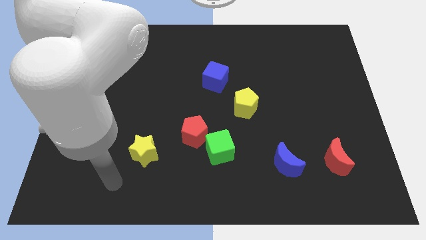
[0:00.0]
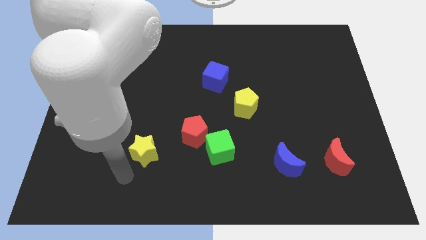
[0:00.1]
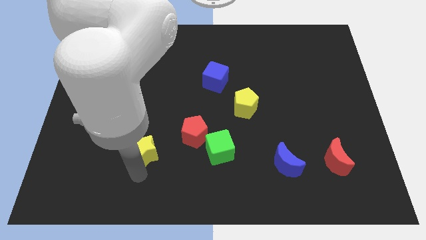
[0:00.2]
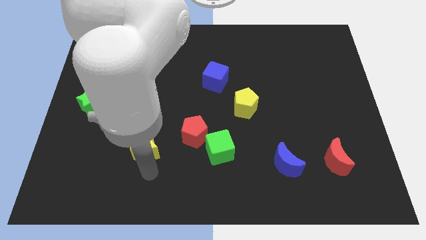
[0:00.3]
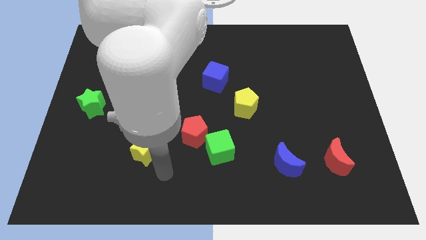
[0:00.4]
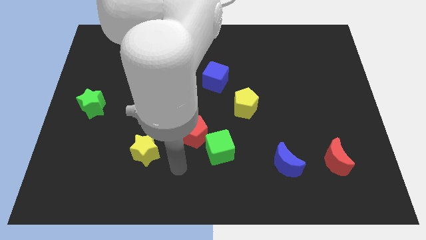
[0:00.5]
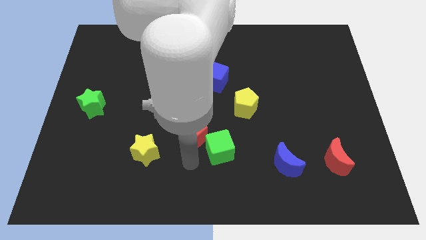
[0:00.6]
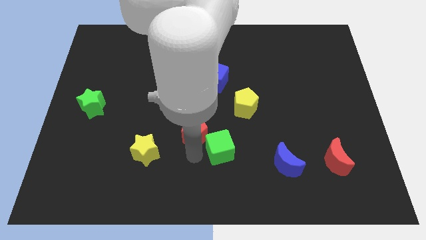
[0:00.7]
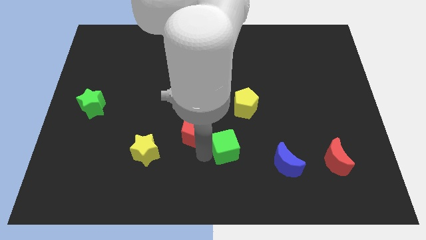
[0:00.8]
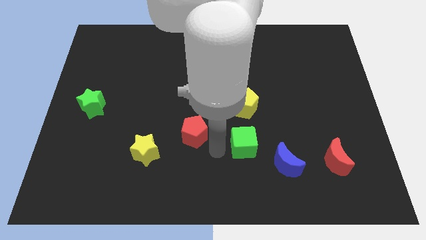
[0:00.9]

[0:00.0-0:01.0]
move the red pentagon away from the green cube

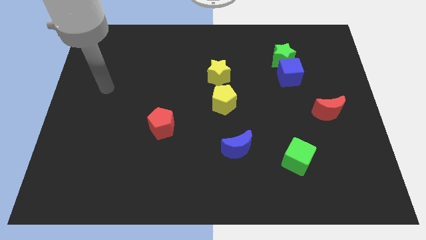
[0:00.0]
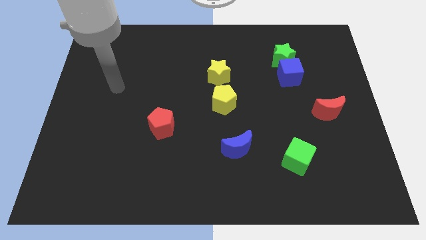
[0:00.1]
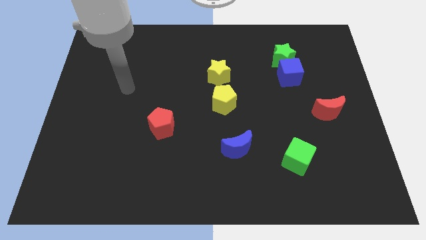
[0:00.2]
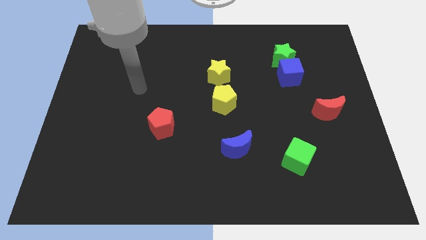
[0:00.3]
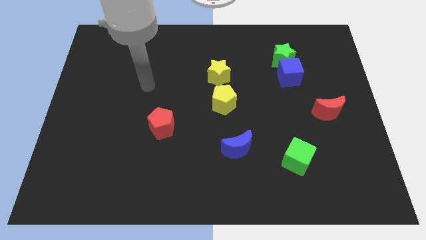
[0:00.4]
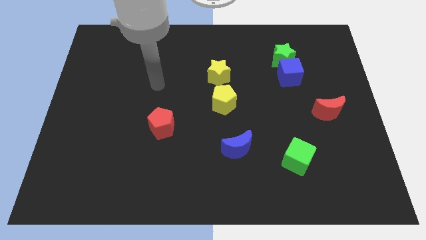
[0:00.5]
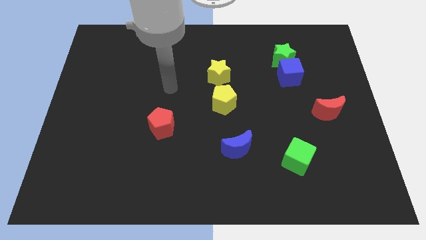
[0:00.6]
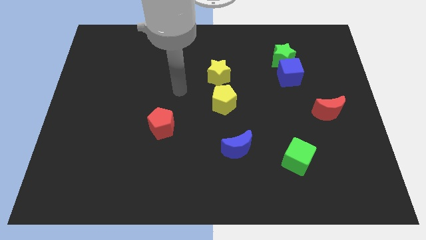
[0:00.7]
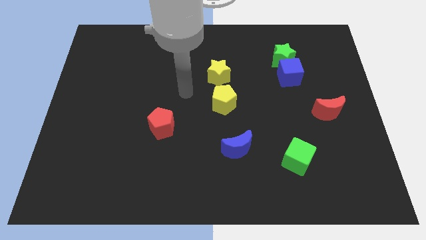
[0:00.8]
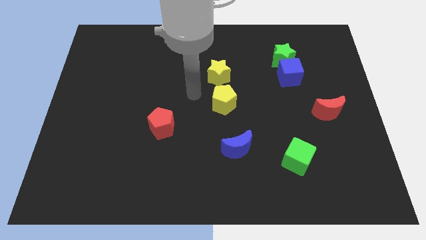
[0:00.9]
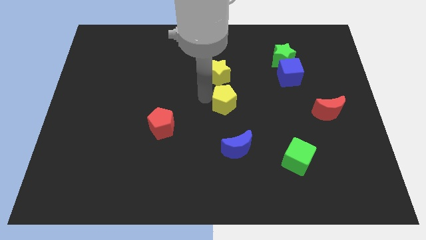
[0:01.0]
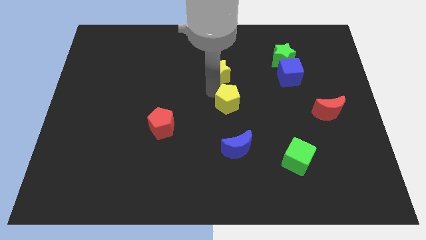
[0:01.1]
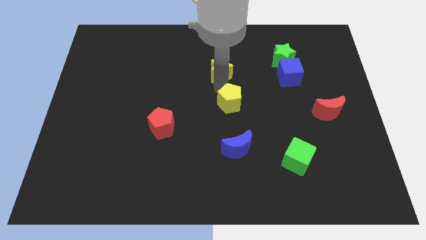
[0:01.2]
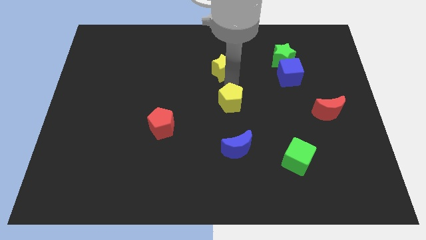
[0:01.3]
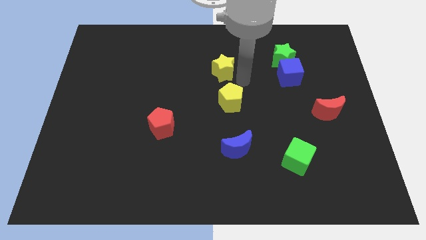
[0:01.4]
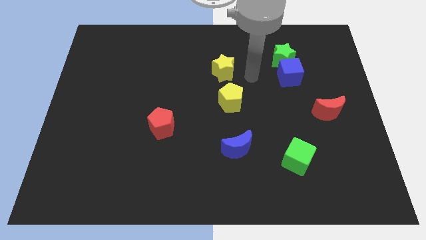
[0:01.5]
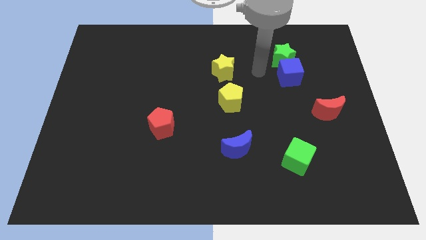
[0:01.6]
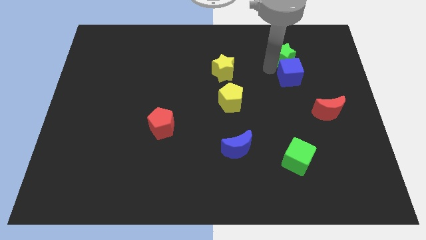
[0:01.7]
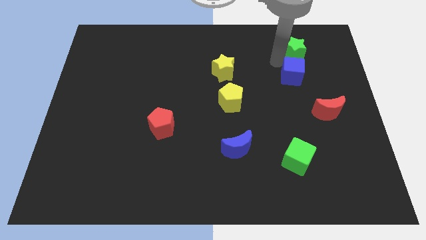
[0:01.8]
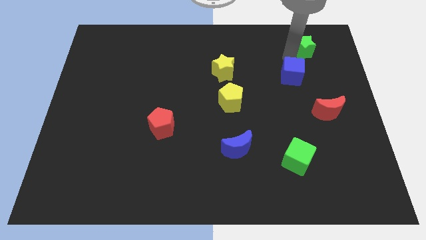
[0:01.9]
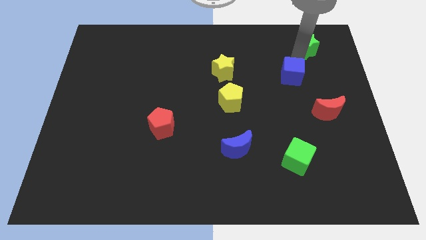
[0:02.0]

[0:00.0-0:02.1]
pull the blue cube apart from the green star

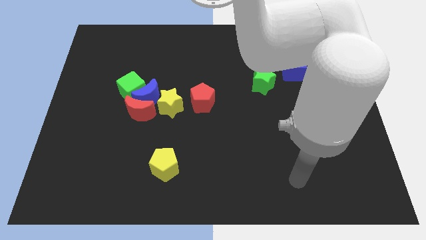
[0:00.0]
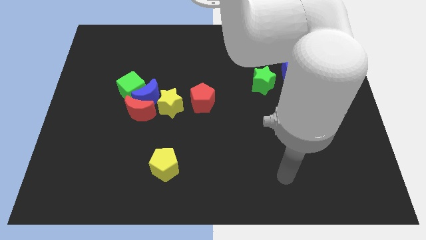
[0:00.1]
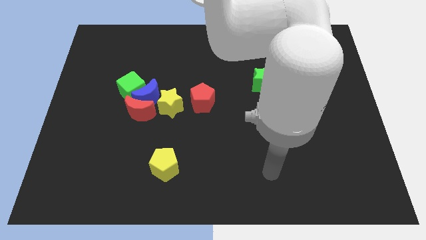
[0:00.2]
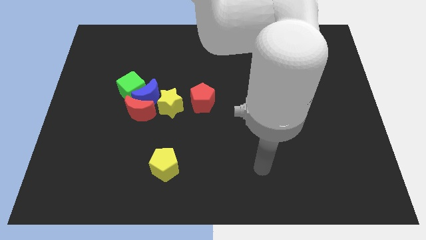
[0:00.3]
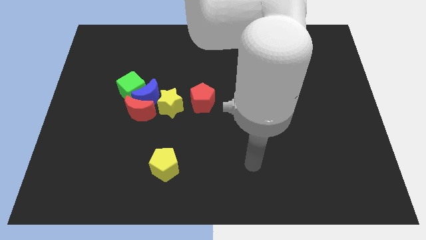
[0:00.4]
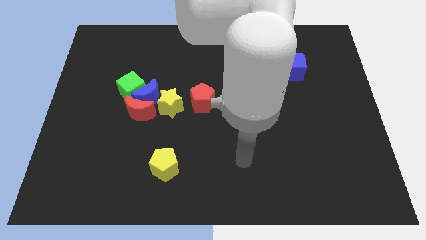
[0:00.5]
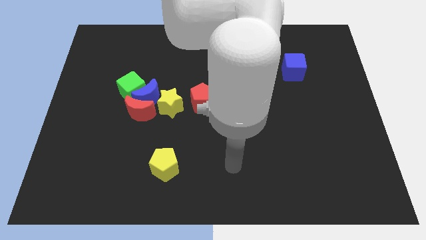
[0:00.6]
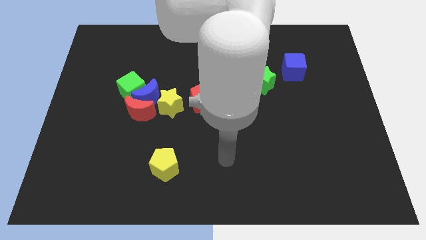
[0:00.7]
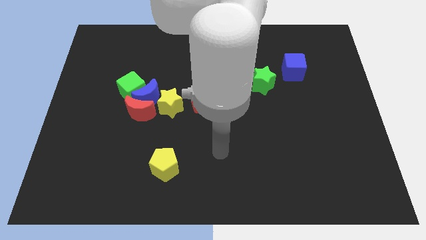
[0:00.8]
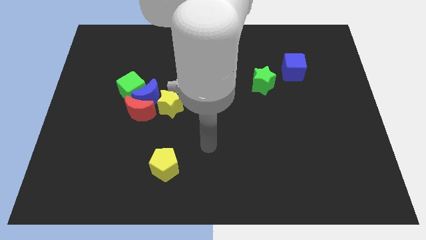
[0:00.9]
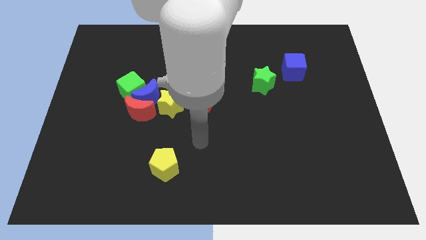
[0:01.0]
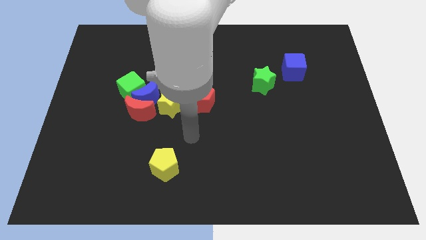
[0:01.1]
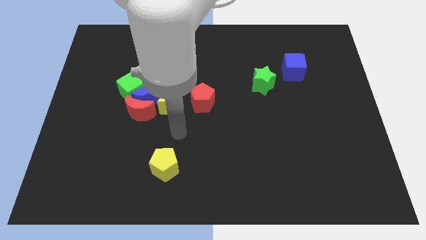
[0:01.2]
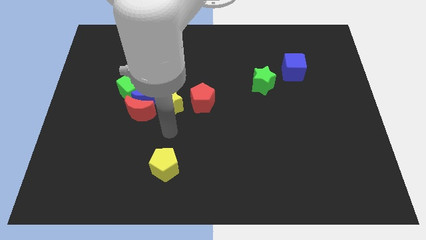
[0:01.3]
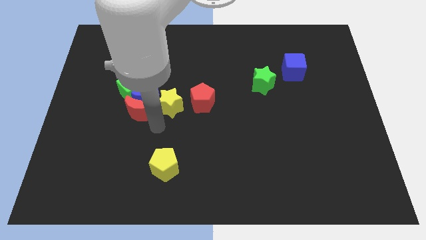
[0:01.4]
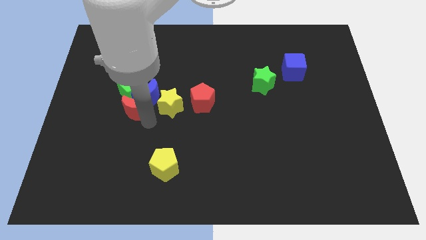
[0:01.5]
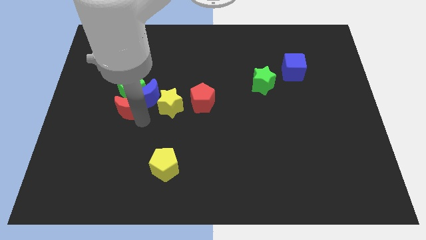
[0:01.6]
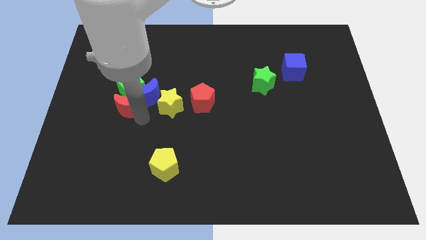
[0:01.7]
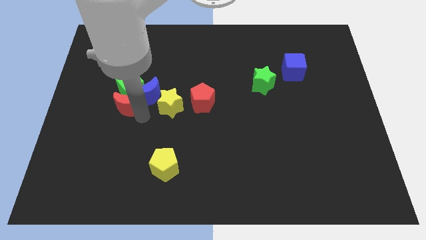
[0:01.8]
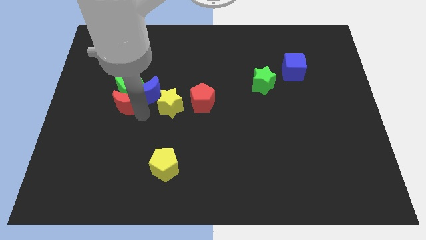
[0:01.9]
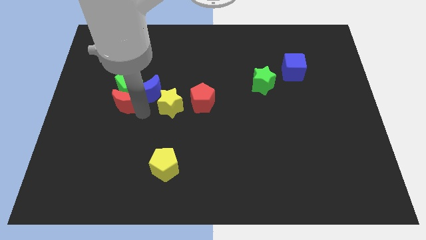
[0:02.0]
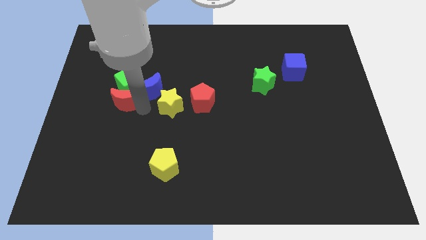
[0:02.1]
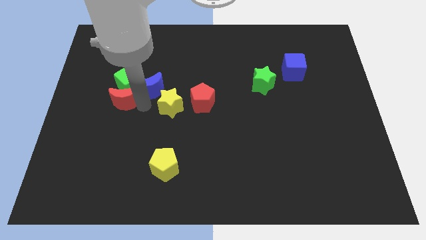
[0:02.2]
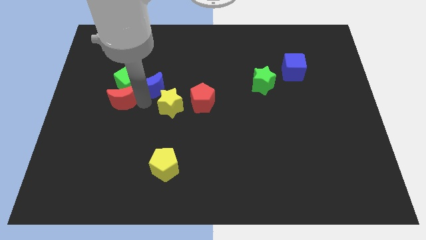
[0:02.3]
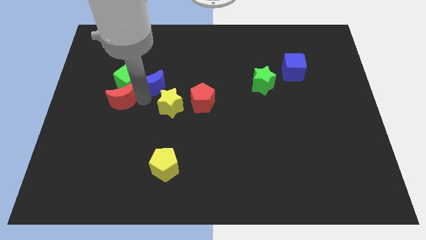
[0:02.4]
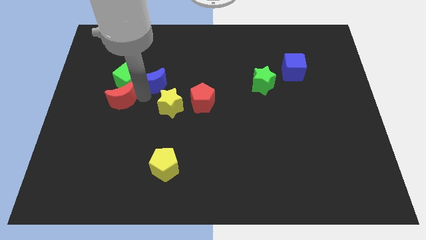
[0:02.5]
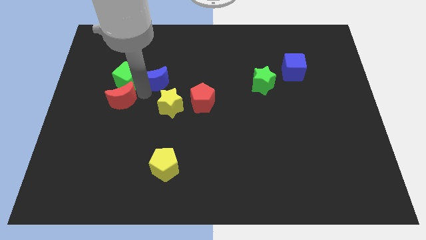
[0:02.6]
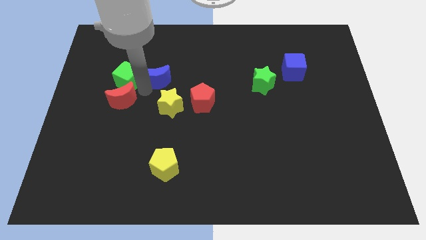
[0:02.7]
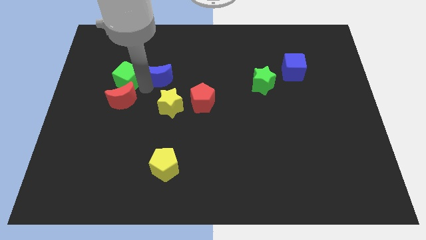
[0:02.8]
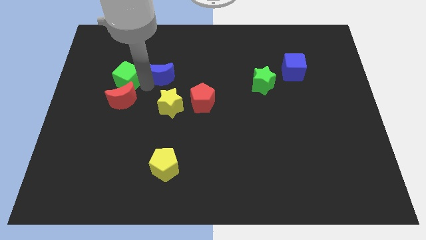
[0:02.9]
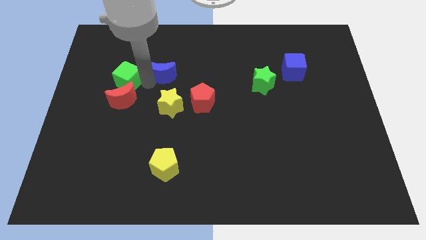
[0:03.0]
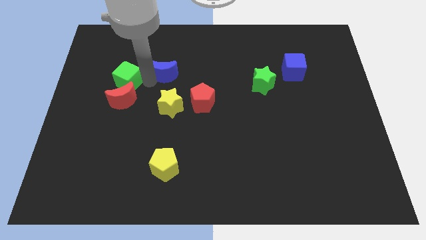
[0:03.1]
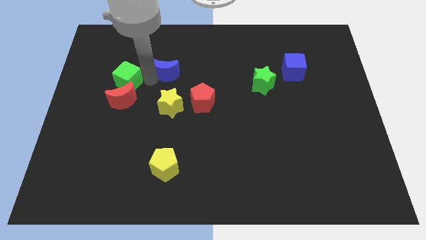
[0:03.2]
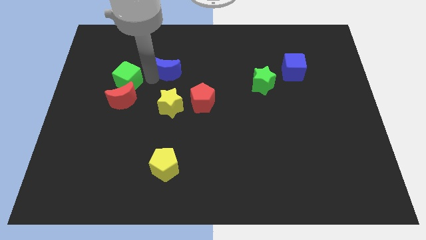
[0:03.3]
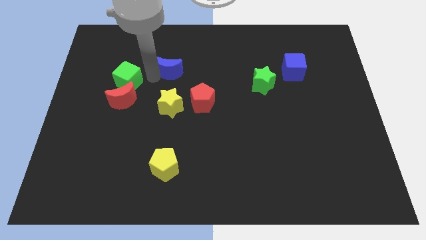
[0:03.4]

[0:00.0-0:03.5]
pull the blue moon apart from the red moon, green cube, and yellow star

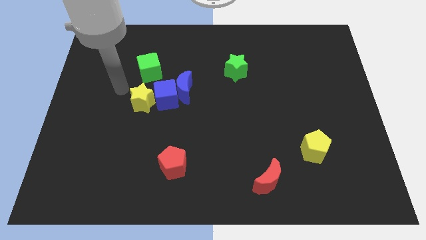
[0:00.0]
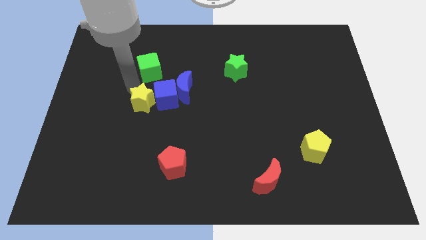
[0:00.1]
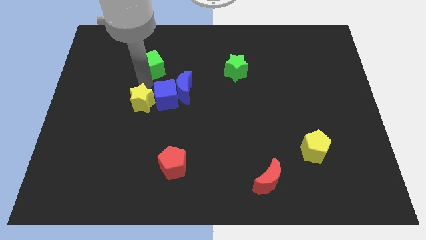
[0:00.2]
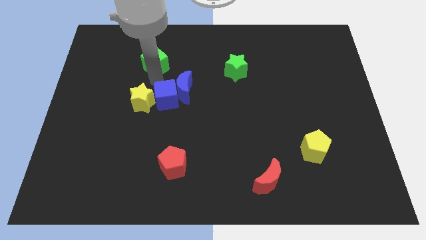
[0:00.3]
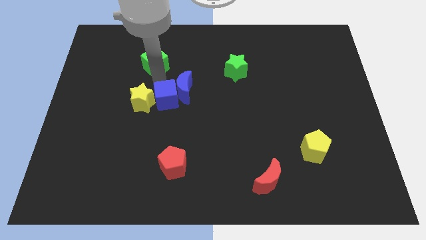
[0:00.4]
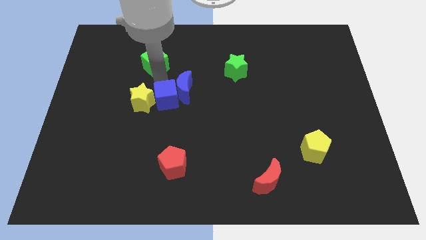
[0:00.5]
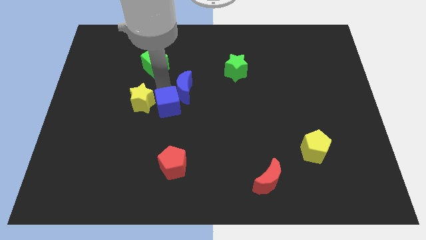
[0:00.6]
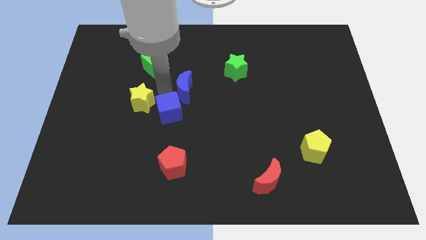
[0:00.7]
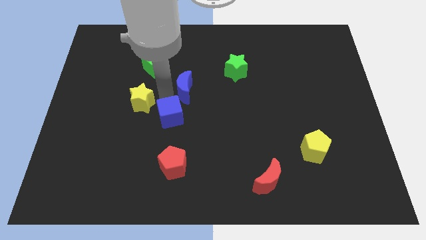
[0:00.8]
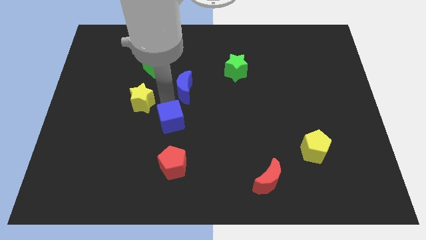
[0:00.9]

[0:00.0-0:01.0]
separate the blue cube from the group

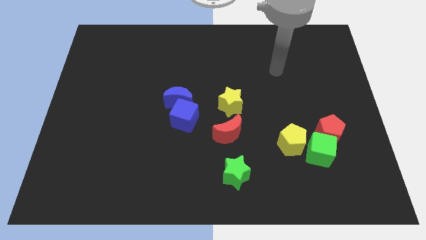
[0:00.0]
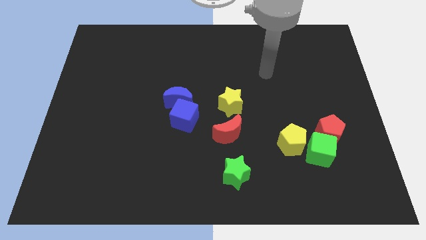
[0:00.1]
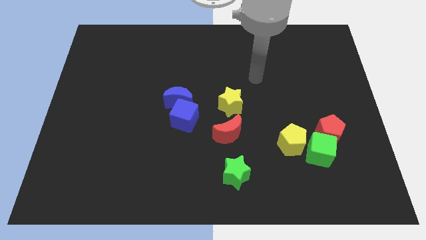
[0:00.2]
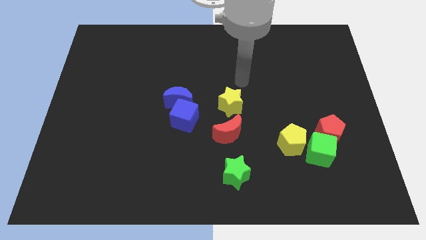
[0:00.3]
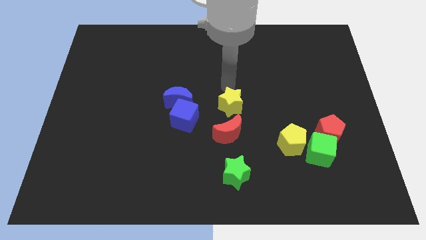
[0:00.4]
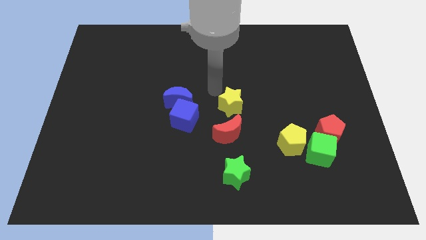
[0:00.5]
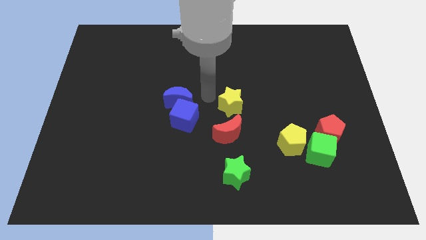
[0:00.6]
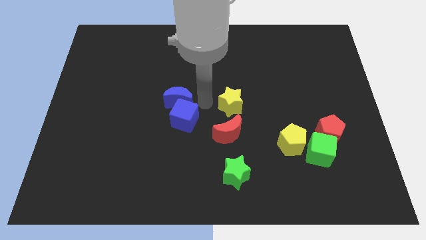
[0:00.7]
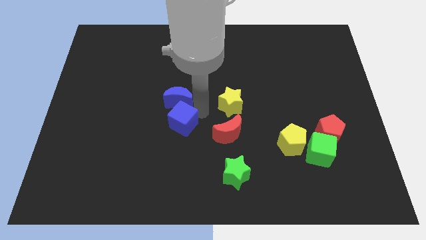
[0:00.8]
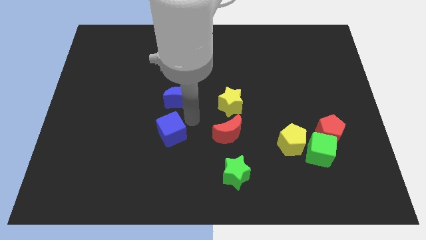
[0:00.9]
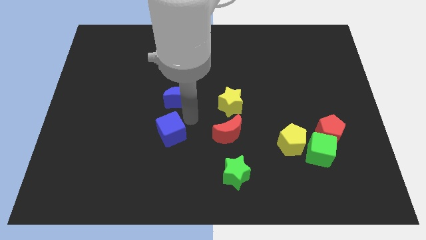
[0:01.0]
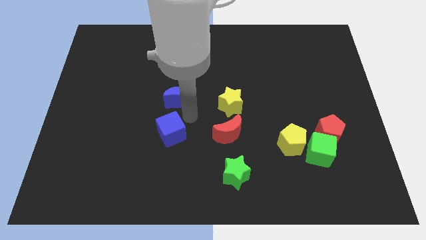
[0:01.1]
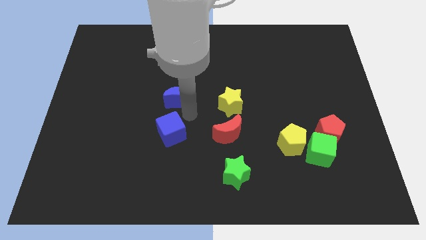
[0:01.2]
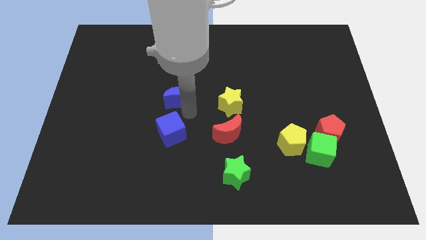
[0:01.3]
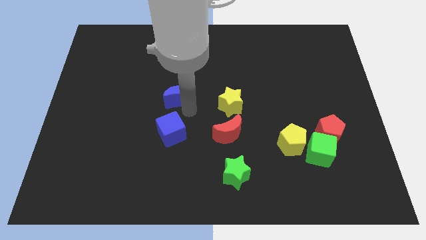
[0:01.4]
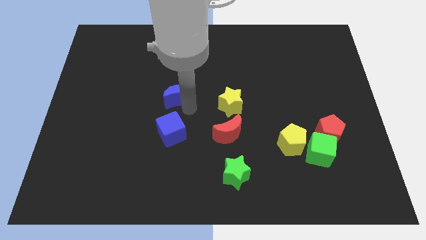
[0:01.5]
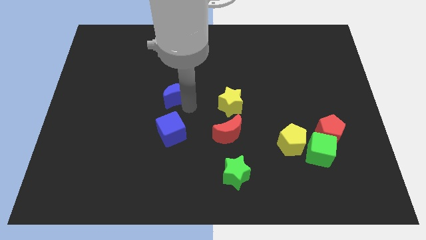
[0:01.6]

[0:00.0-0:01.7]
move the blue moon away from the blue cube

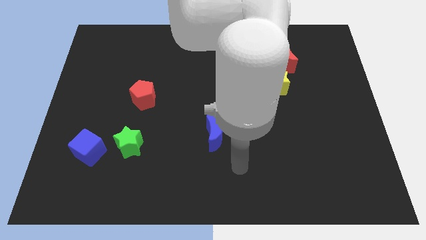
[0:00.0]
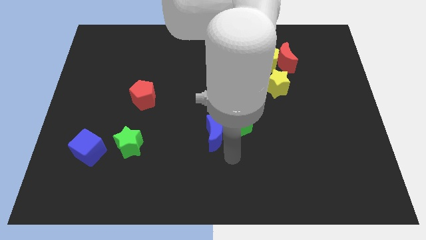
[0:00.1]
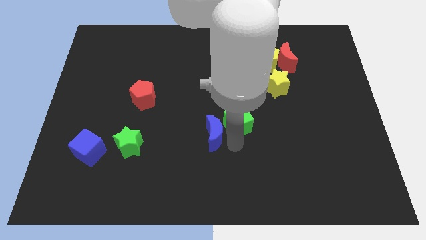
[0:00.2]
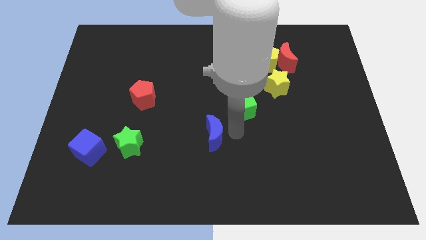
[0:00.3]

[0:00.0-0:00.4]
pull the blue moon apart from the green cube
